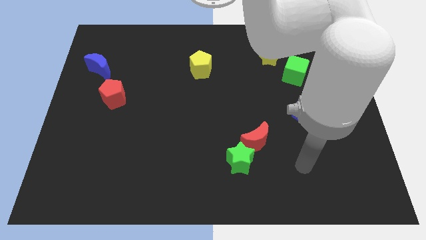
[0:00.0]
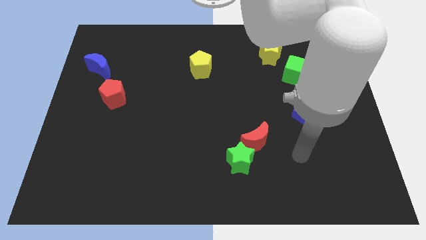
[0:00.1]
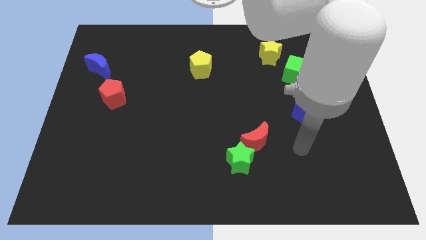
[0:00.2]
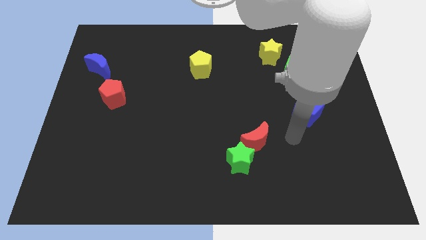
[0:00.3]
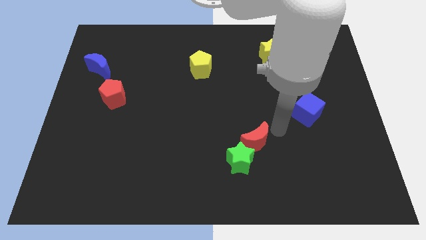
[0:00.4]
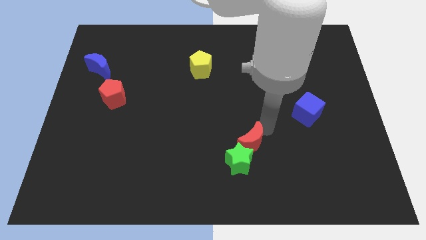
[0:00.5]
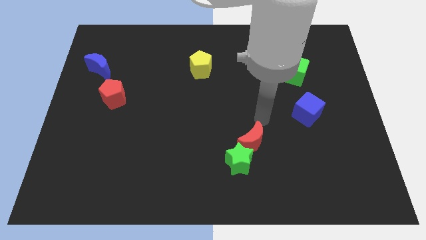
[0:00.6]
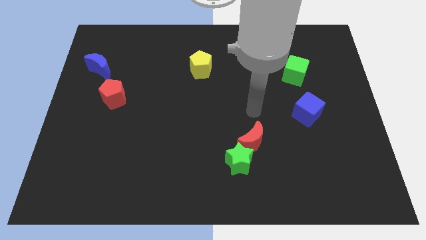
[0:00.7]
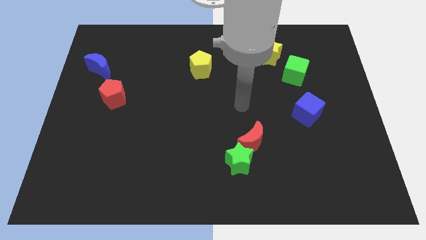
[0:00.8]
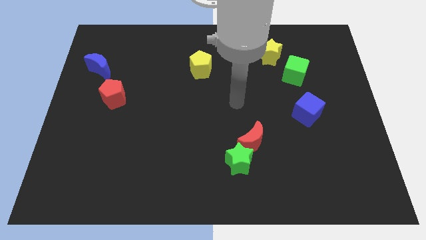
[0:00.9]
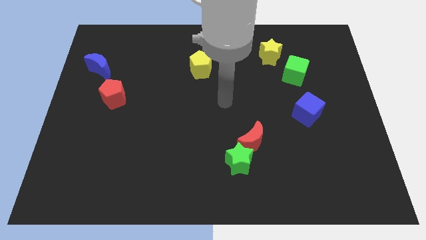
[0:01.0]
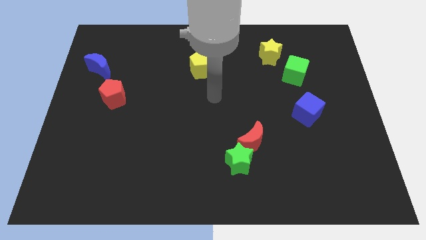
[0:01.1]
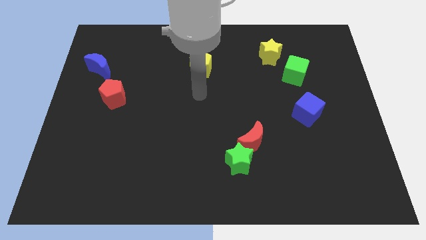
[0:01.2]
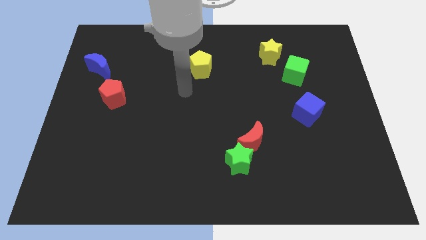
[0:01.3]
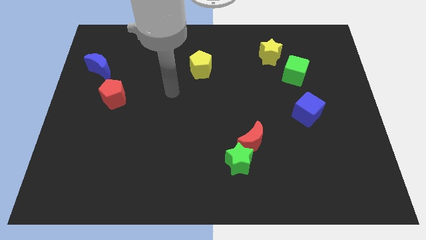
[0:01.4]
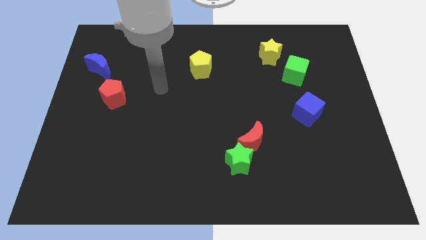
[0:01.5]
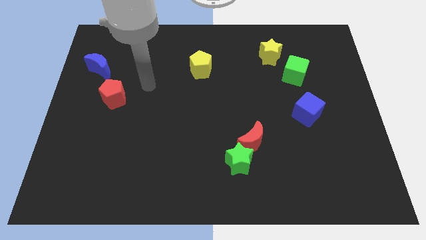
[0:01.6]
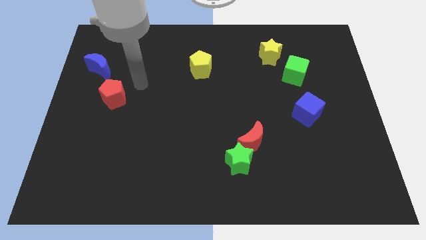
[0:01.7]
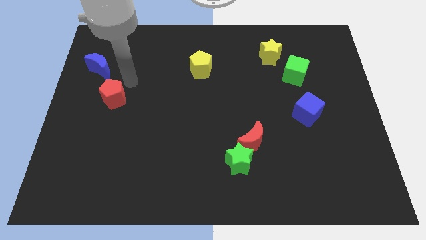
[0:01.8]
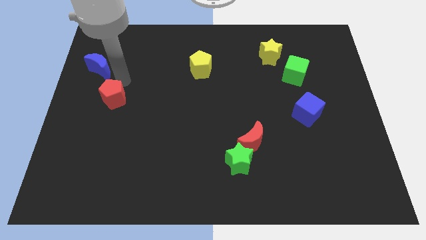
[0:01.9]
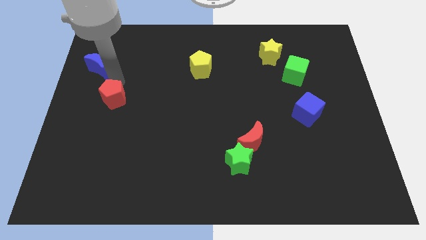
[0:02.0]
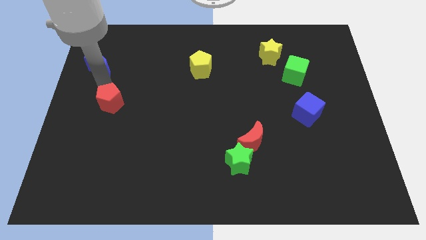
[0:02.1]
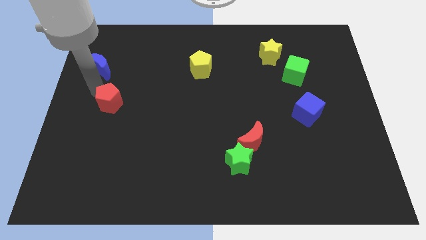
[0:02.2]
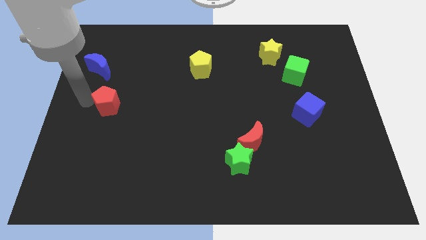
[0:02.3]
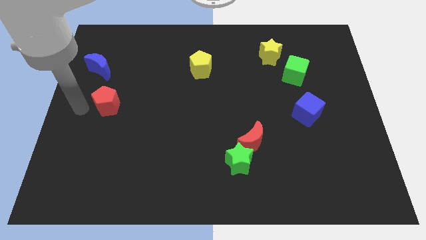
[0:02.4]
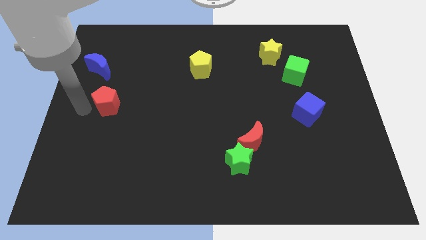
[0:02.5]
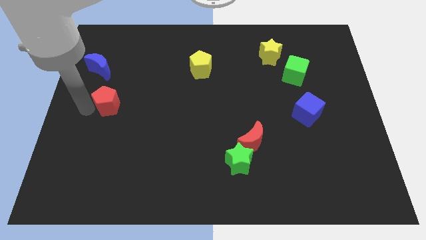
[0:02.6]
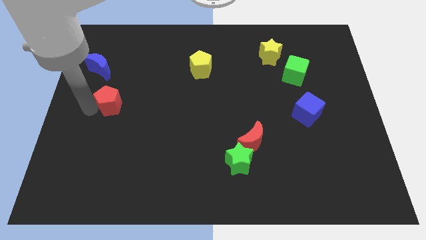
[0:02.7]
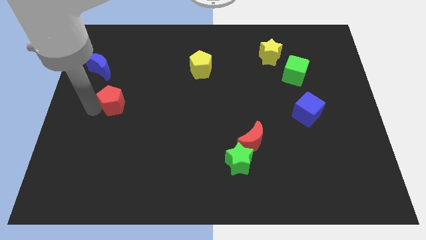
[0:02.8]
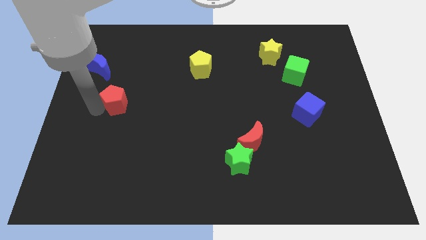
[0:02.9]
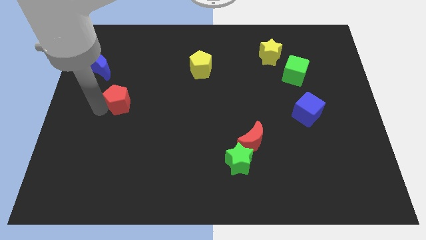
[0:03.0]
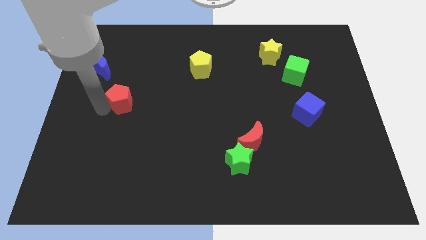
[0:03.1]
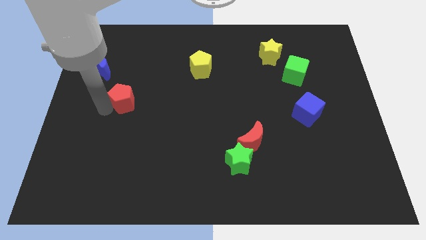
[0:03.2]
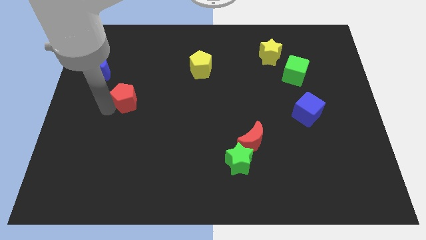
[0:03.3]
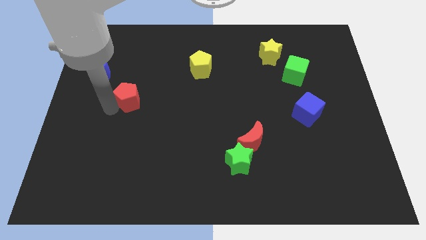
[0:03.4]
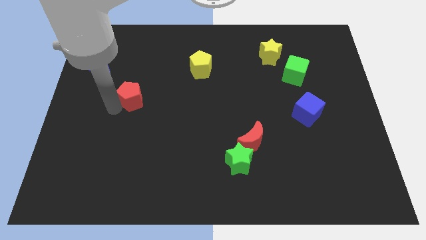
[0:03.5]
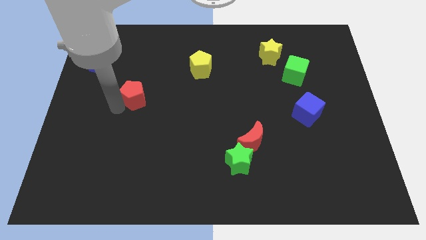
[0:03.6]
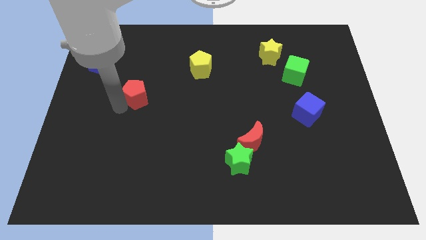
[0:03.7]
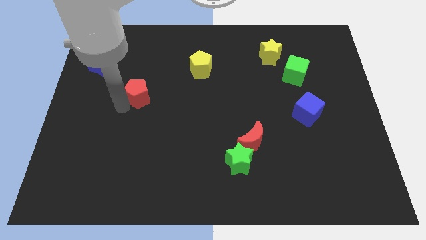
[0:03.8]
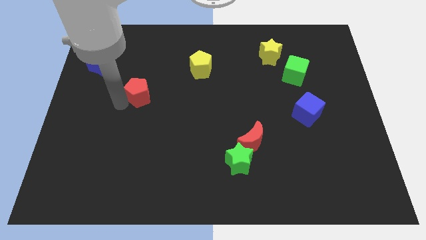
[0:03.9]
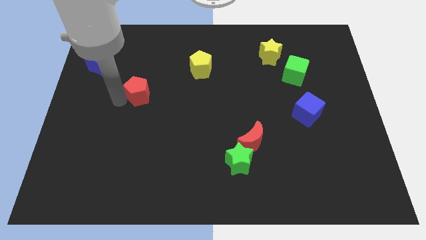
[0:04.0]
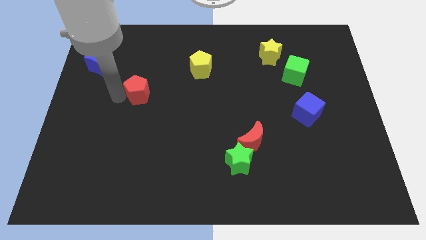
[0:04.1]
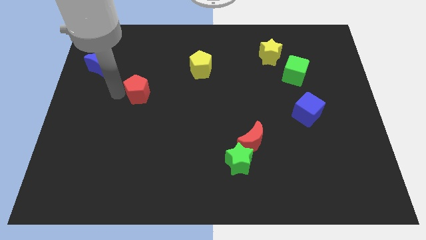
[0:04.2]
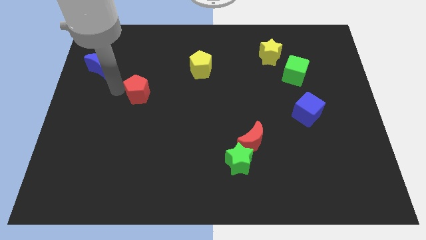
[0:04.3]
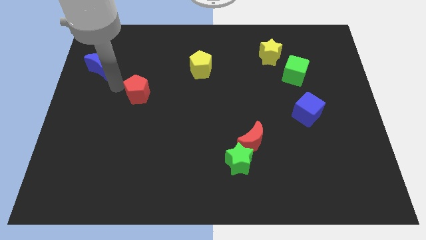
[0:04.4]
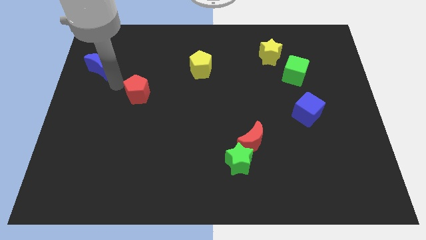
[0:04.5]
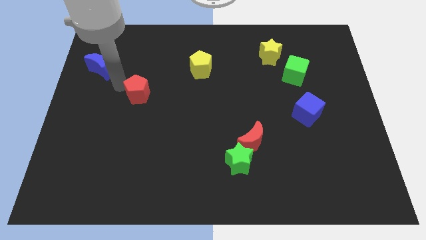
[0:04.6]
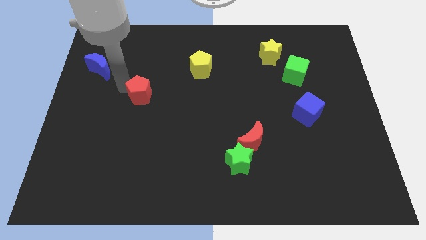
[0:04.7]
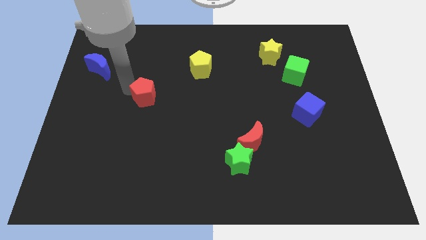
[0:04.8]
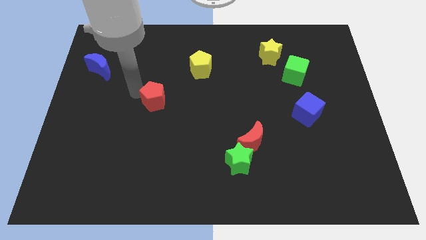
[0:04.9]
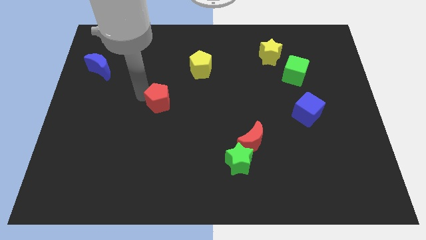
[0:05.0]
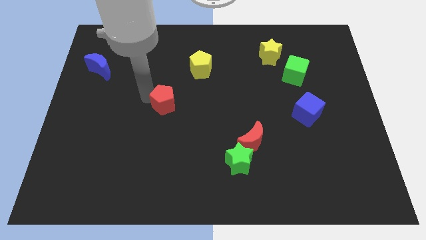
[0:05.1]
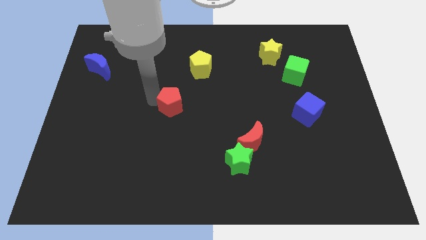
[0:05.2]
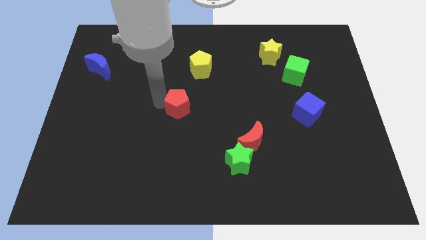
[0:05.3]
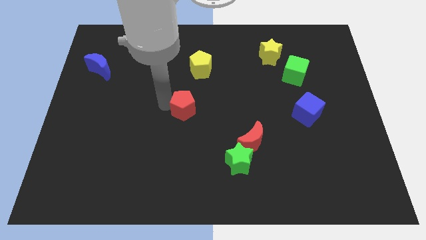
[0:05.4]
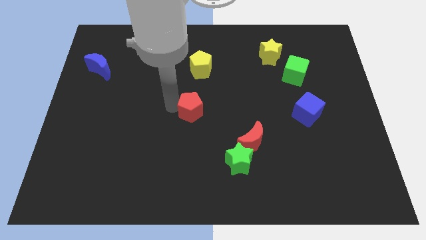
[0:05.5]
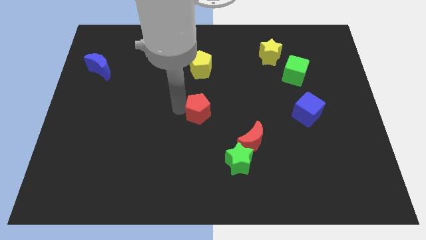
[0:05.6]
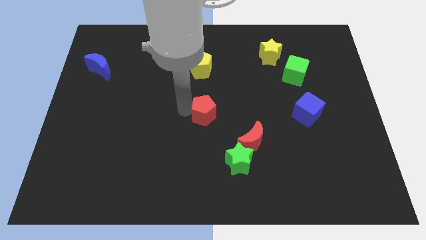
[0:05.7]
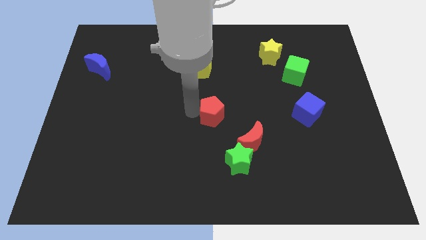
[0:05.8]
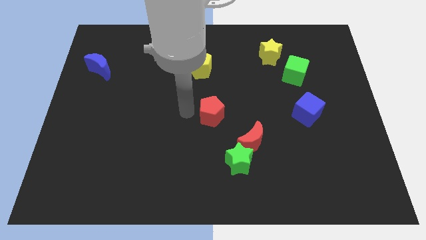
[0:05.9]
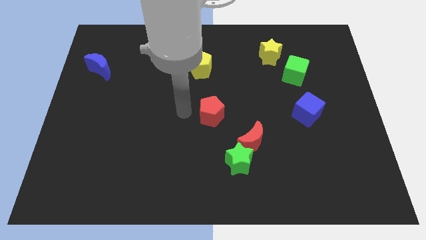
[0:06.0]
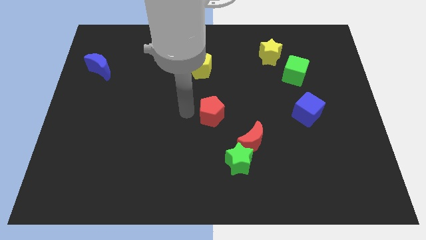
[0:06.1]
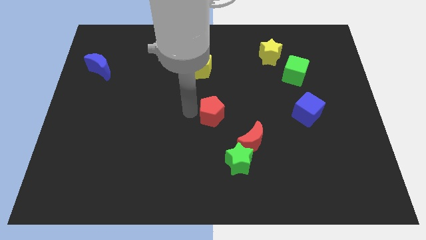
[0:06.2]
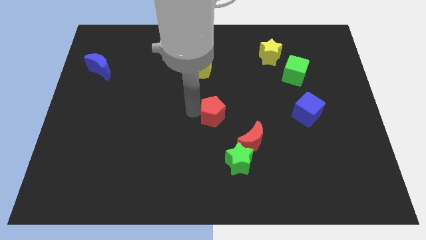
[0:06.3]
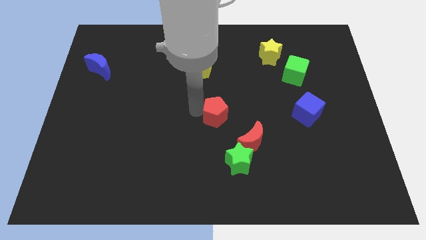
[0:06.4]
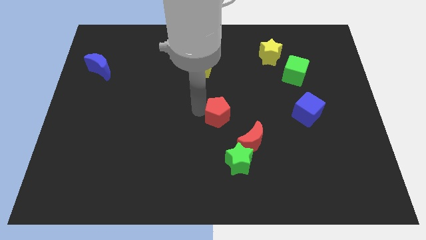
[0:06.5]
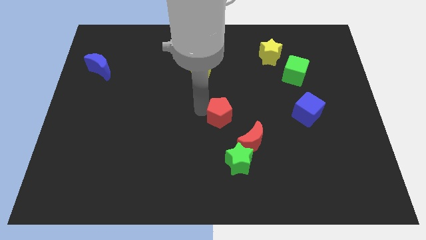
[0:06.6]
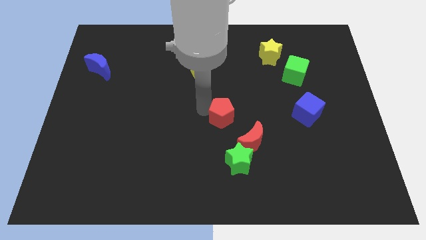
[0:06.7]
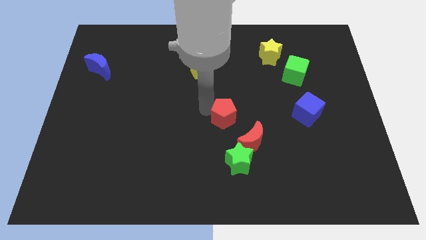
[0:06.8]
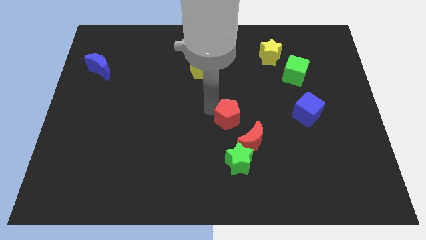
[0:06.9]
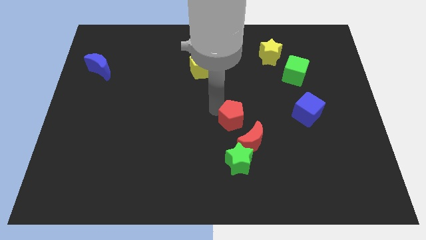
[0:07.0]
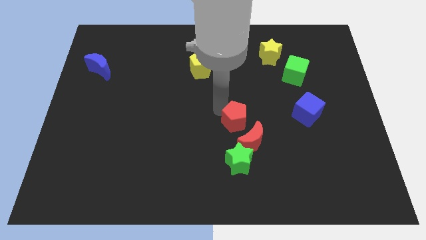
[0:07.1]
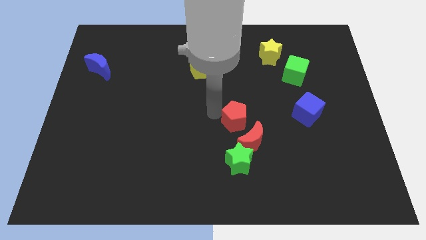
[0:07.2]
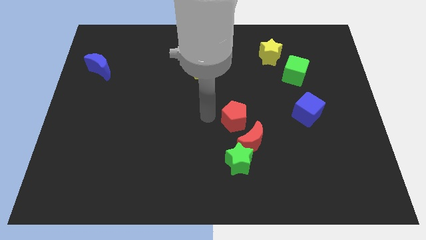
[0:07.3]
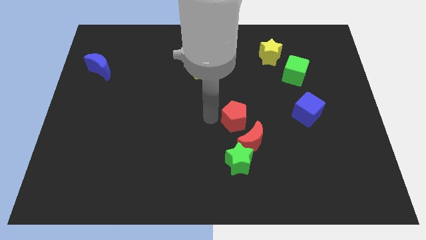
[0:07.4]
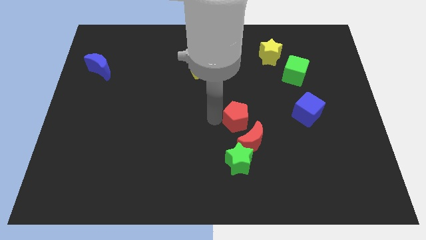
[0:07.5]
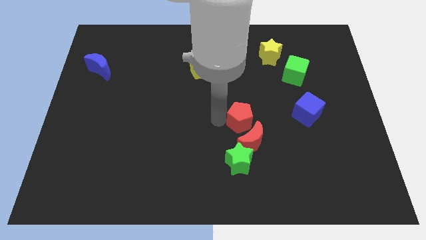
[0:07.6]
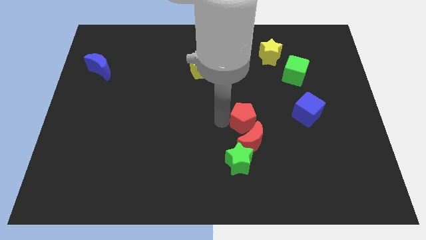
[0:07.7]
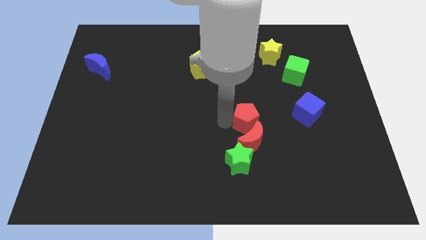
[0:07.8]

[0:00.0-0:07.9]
put the red pentagon diagonally up and to the right of the red moon
